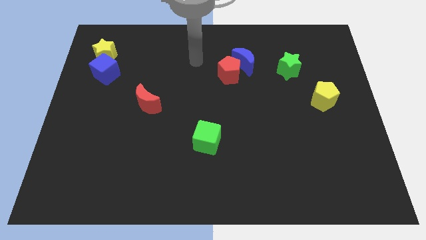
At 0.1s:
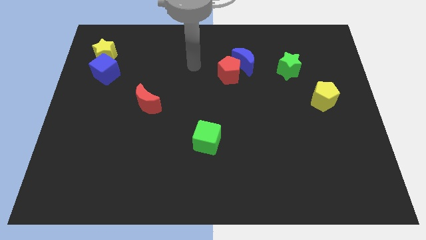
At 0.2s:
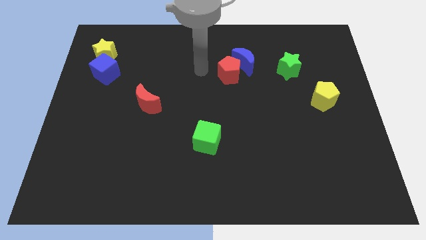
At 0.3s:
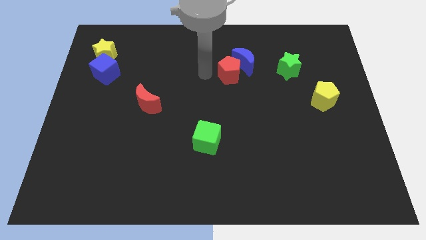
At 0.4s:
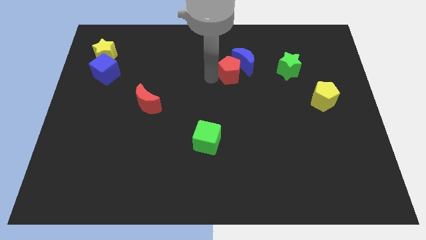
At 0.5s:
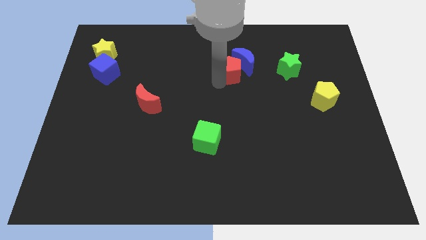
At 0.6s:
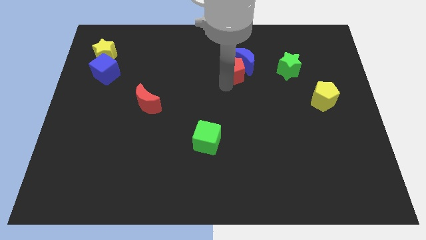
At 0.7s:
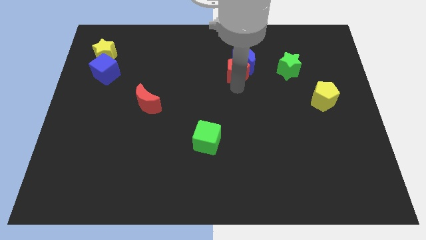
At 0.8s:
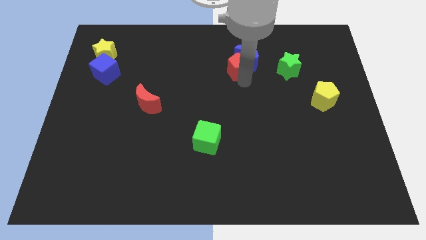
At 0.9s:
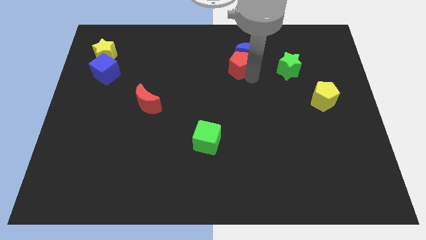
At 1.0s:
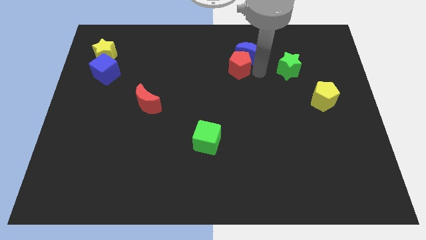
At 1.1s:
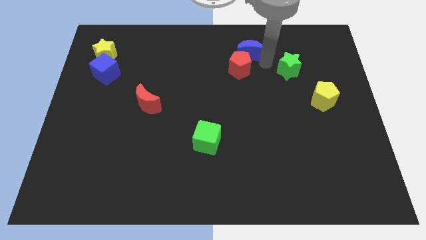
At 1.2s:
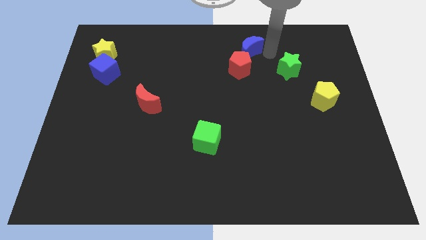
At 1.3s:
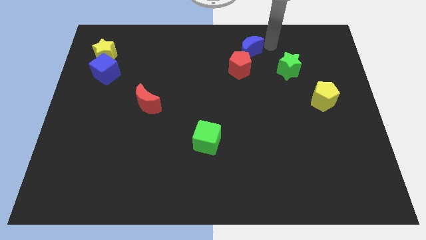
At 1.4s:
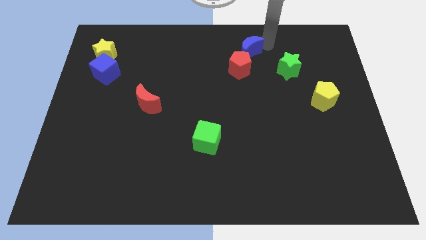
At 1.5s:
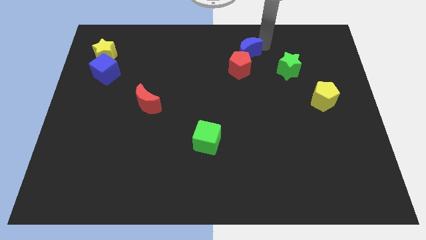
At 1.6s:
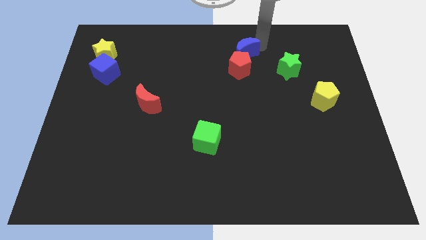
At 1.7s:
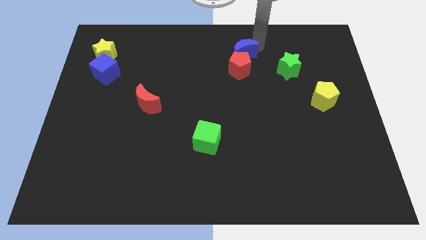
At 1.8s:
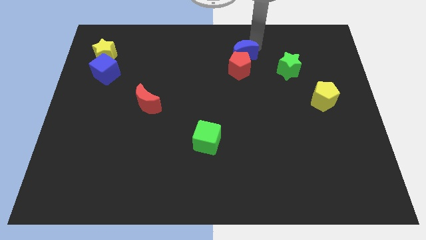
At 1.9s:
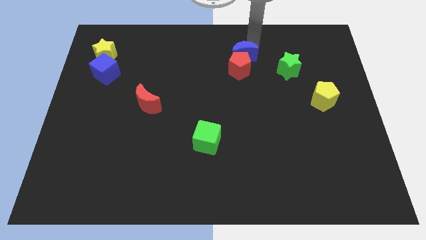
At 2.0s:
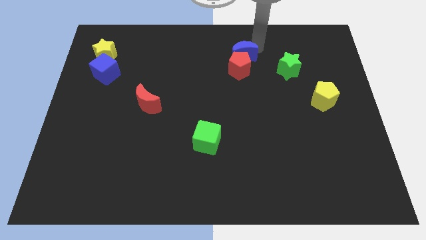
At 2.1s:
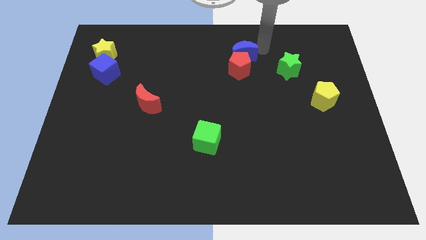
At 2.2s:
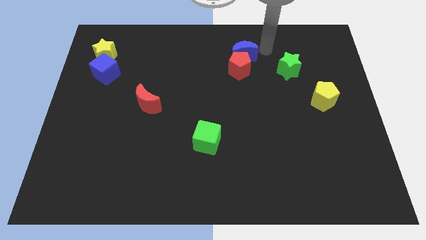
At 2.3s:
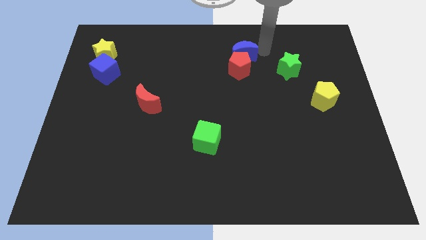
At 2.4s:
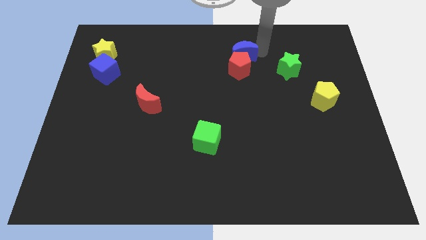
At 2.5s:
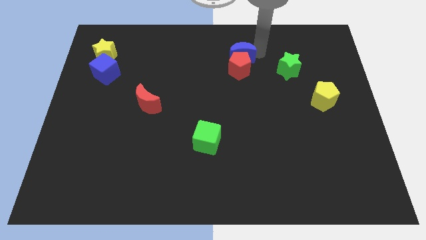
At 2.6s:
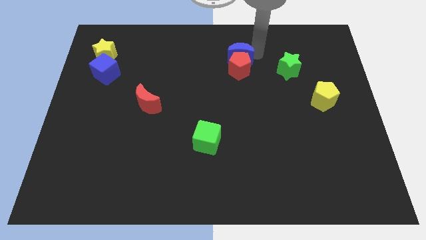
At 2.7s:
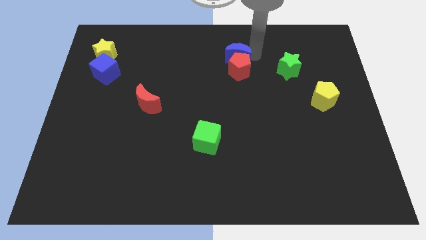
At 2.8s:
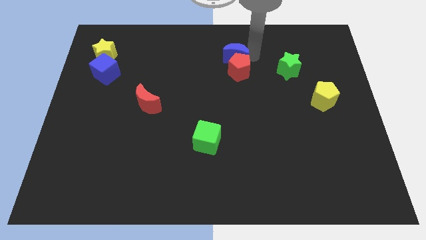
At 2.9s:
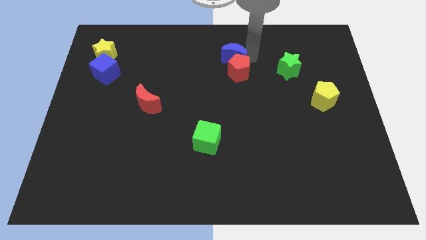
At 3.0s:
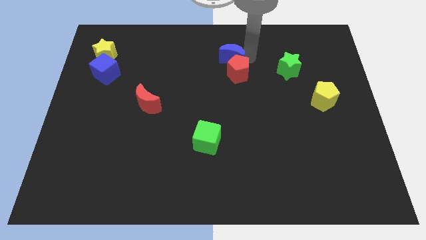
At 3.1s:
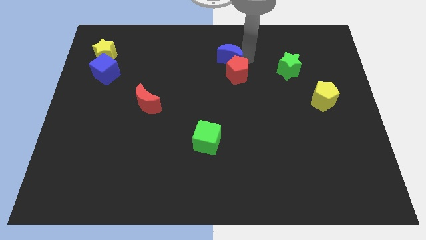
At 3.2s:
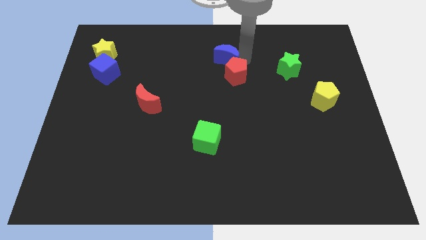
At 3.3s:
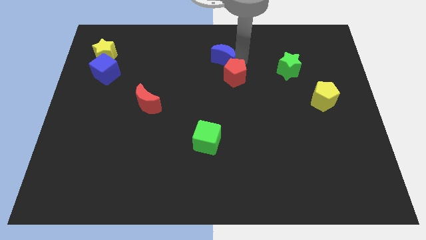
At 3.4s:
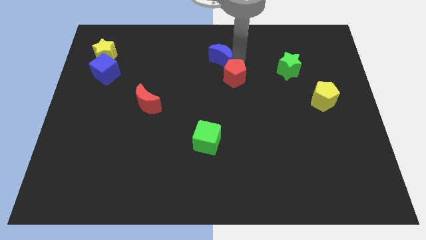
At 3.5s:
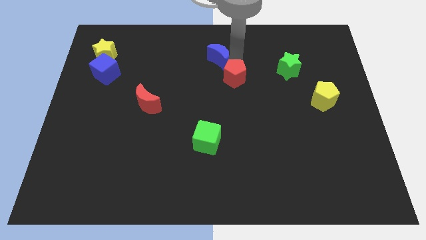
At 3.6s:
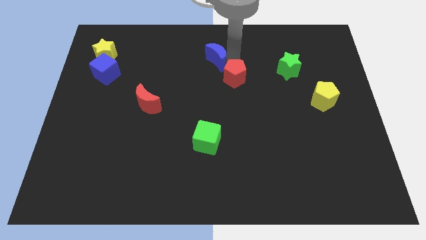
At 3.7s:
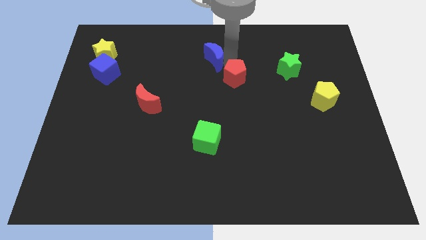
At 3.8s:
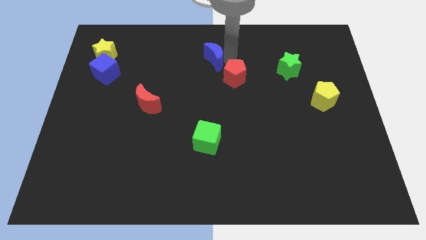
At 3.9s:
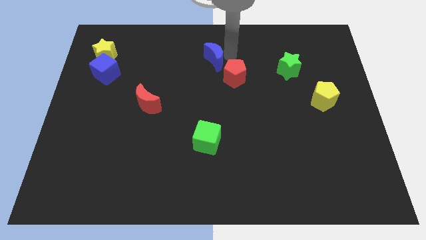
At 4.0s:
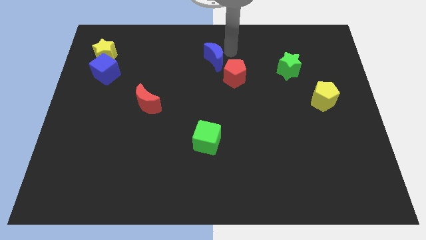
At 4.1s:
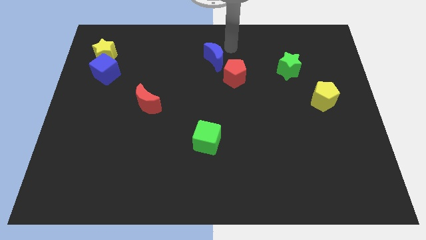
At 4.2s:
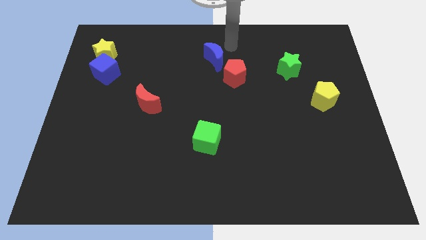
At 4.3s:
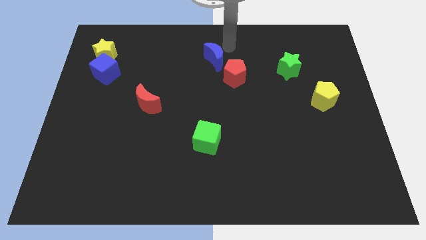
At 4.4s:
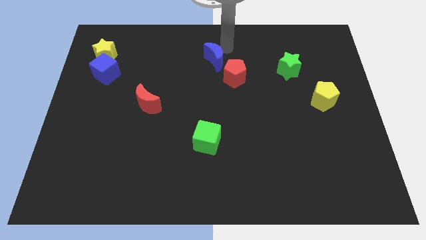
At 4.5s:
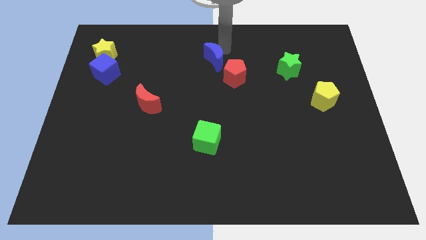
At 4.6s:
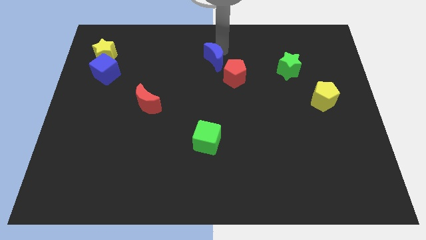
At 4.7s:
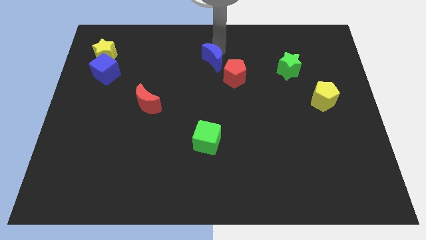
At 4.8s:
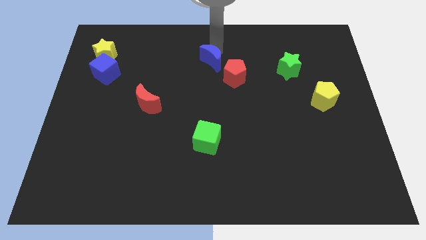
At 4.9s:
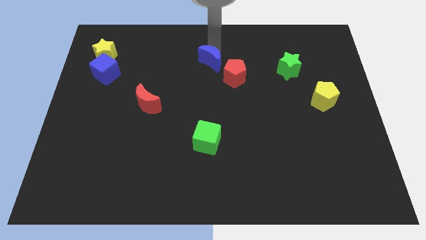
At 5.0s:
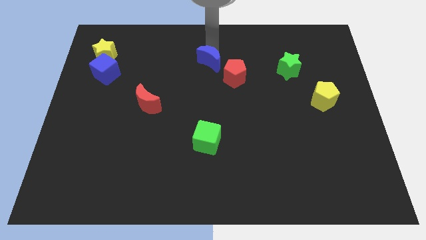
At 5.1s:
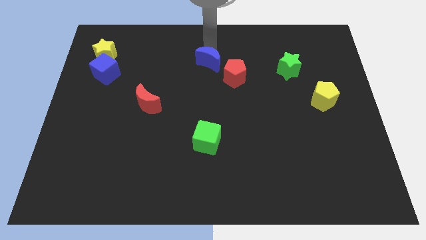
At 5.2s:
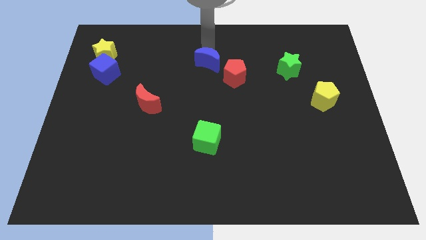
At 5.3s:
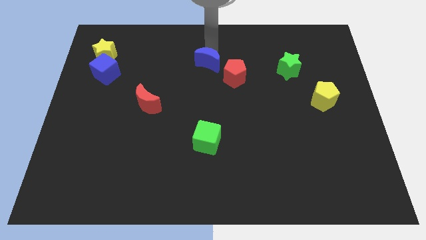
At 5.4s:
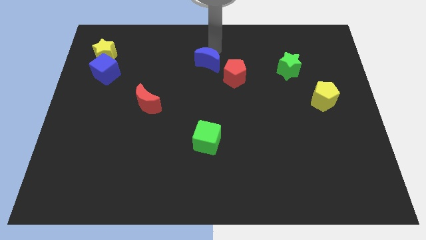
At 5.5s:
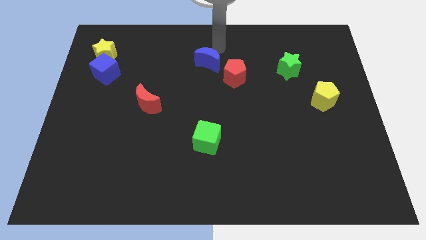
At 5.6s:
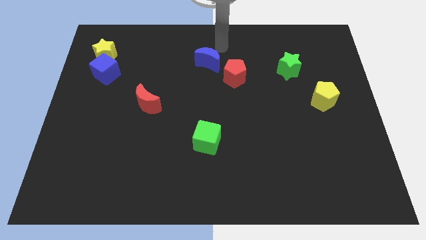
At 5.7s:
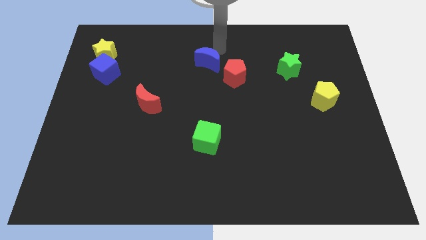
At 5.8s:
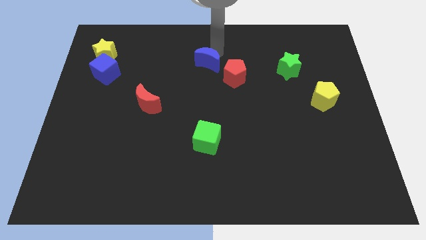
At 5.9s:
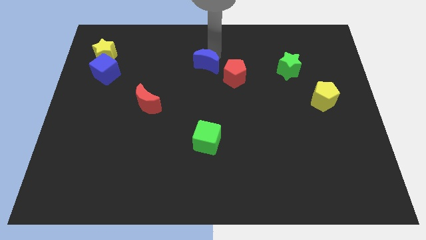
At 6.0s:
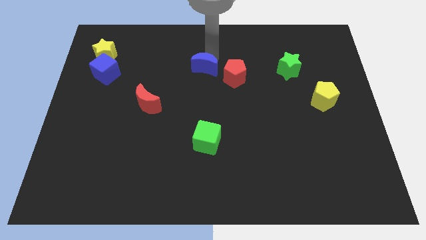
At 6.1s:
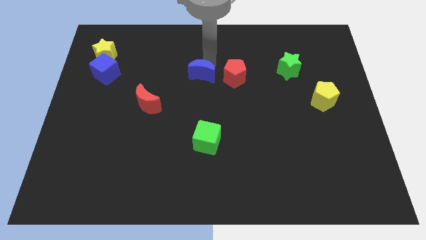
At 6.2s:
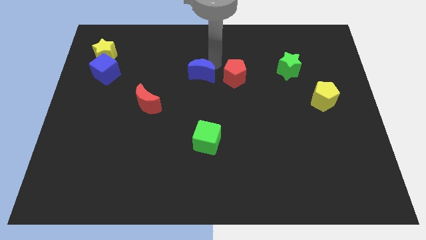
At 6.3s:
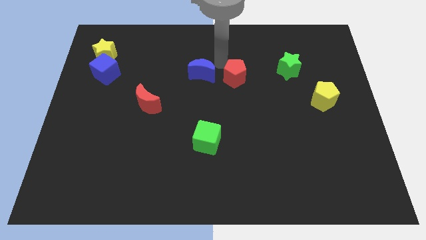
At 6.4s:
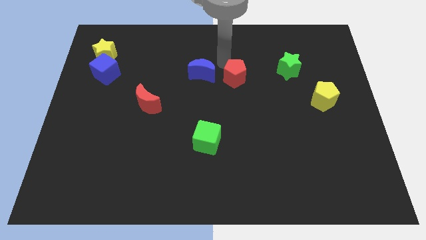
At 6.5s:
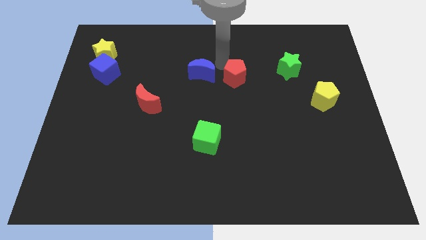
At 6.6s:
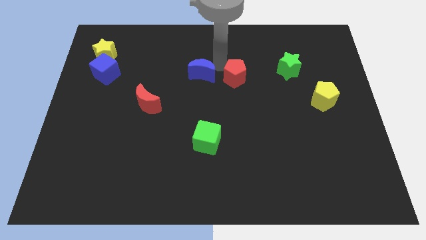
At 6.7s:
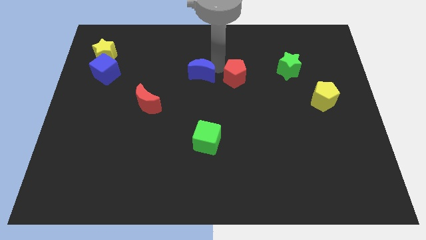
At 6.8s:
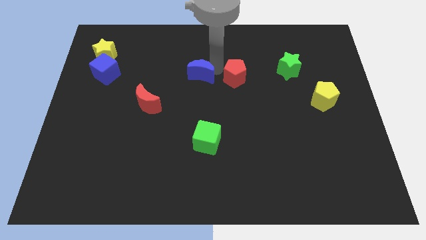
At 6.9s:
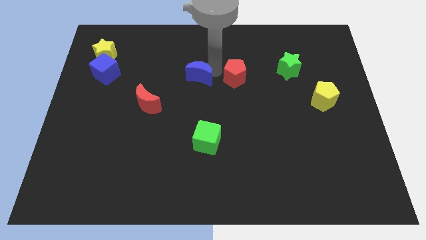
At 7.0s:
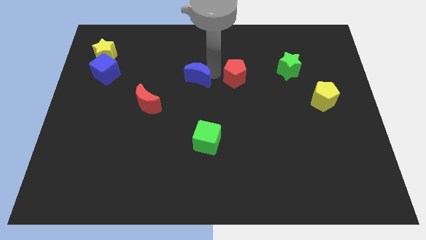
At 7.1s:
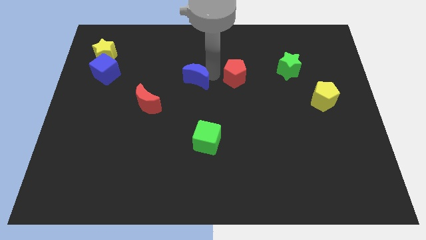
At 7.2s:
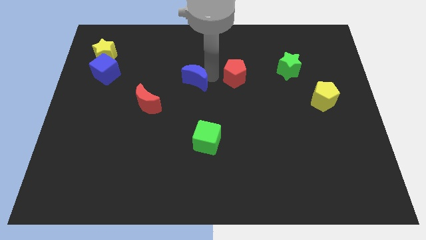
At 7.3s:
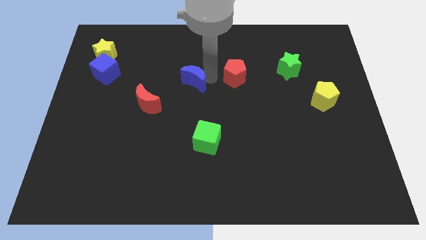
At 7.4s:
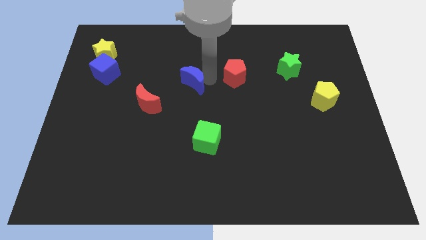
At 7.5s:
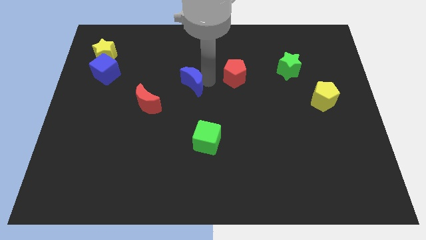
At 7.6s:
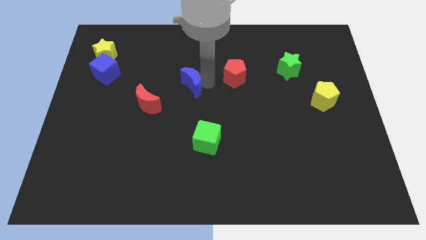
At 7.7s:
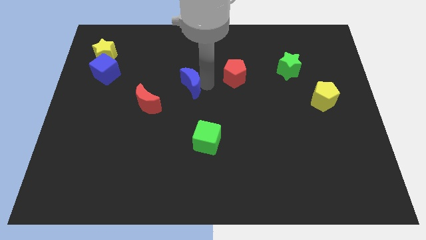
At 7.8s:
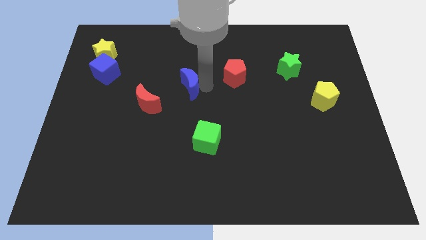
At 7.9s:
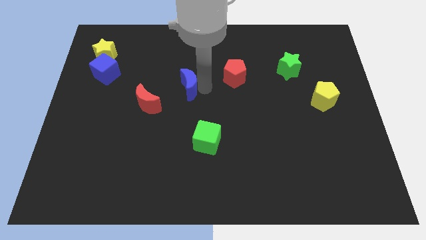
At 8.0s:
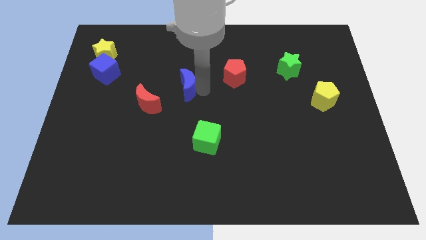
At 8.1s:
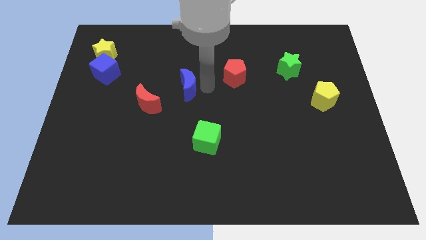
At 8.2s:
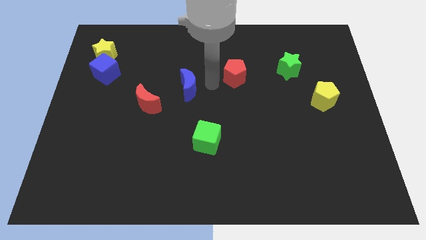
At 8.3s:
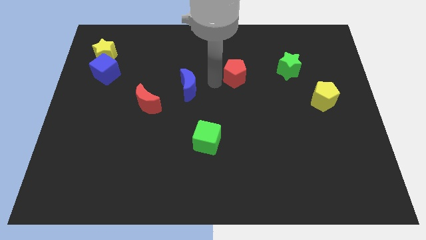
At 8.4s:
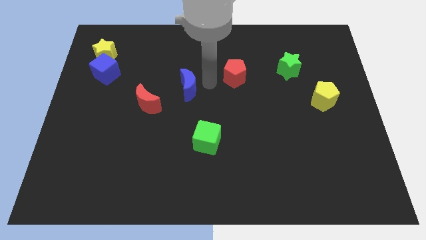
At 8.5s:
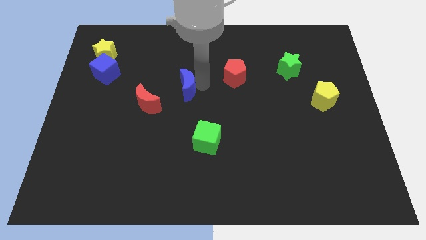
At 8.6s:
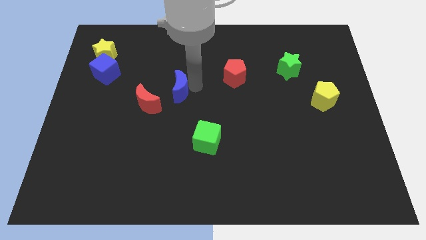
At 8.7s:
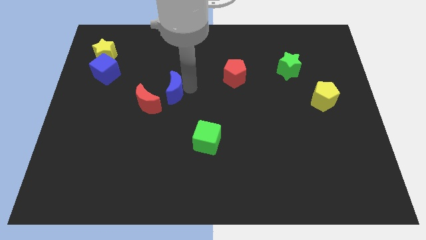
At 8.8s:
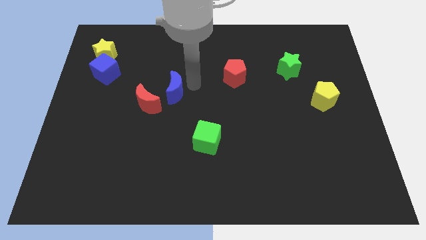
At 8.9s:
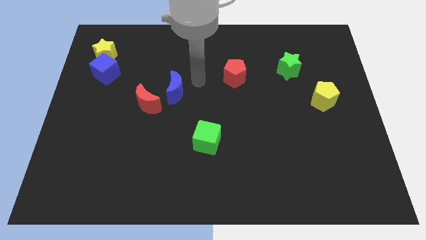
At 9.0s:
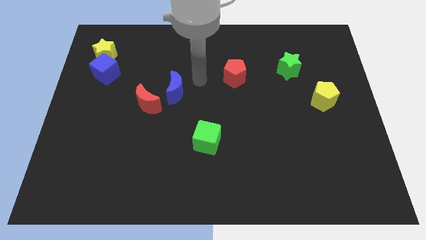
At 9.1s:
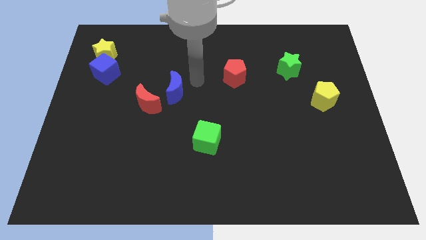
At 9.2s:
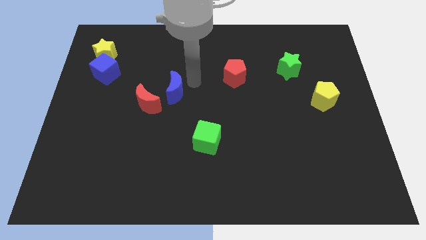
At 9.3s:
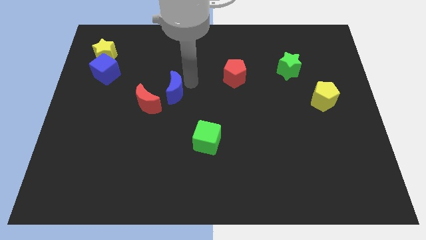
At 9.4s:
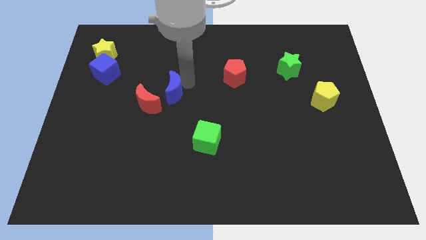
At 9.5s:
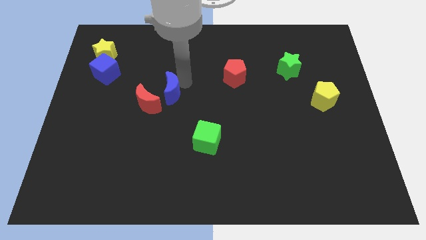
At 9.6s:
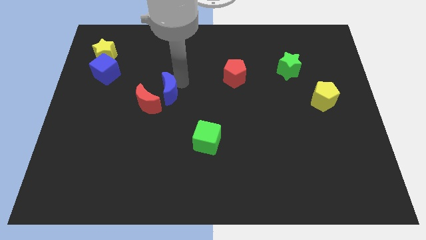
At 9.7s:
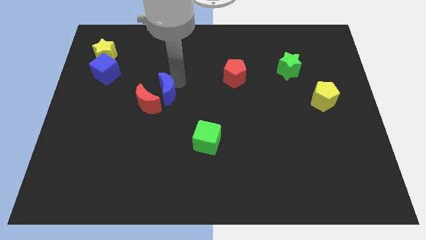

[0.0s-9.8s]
slide the blue moon towards the red moon
